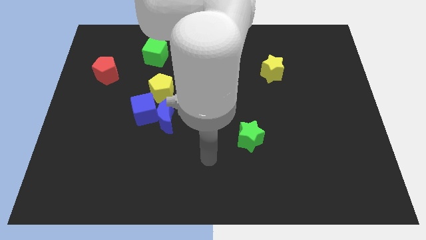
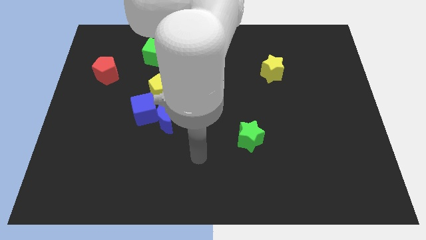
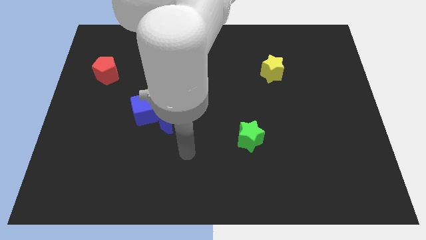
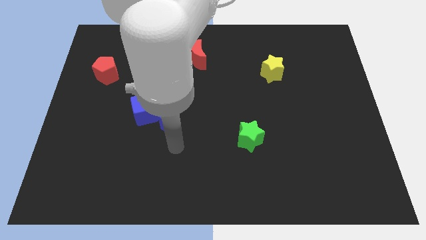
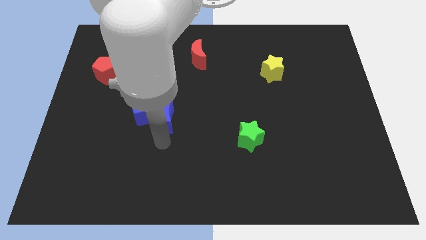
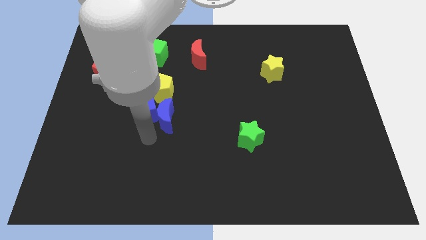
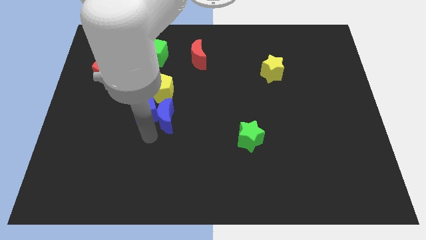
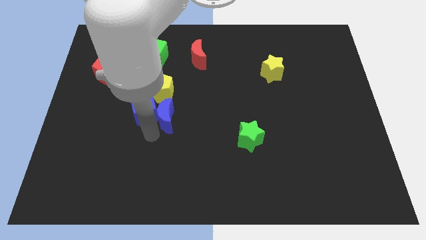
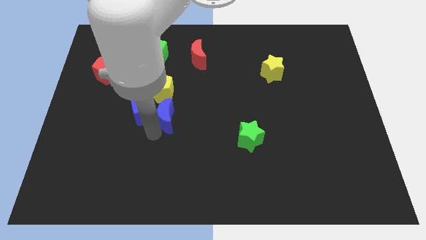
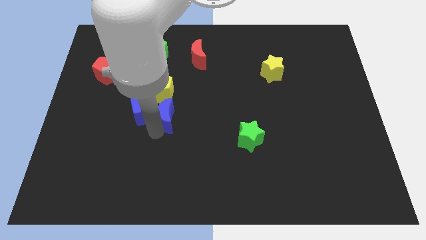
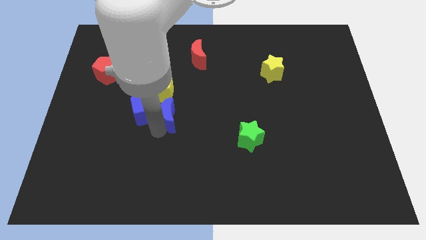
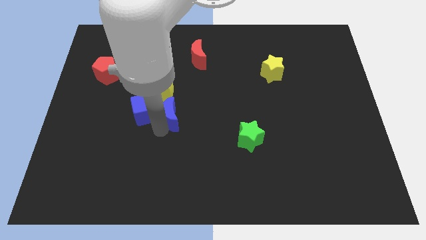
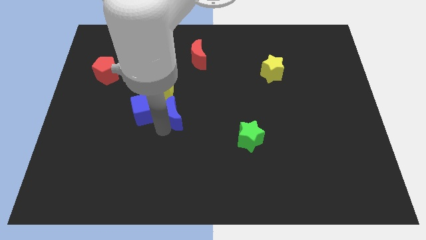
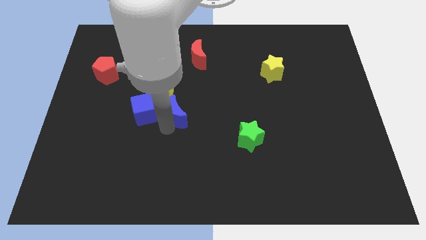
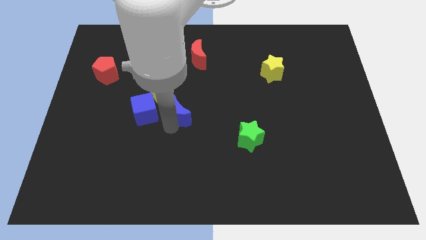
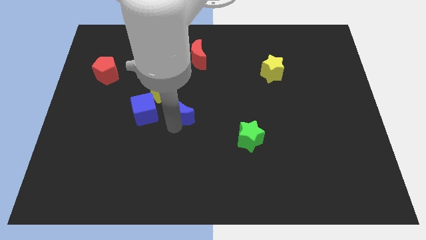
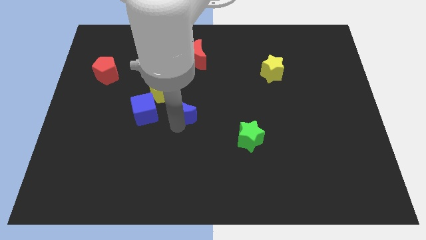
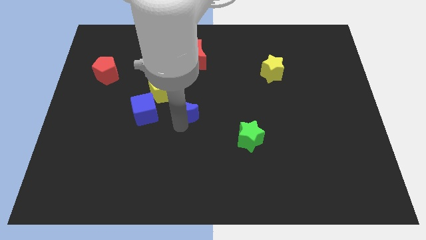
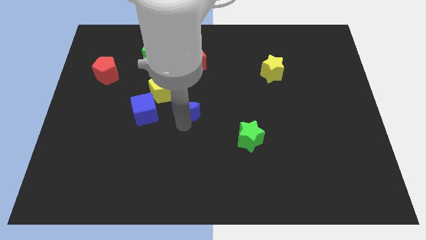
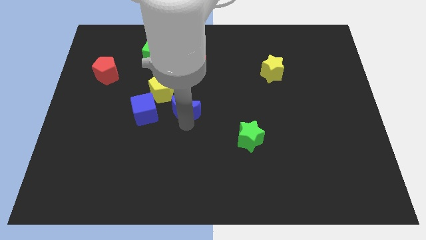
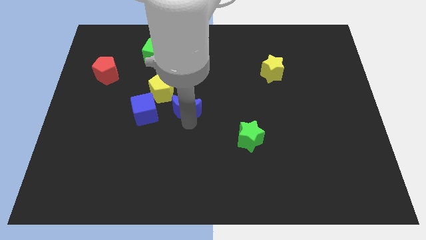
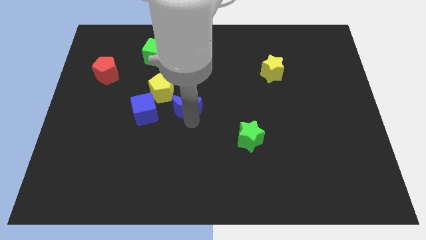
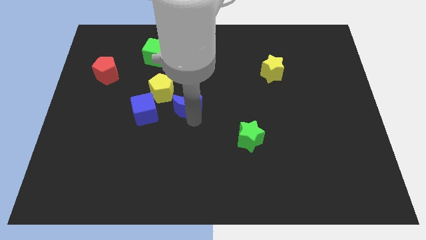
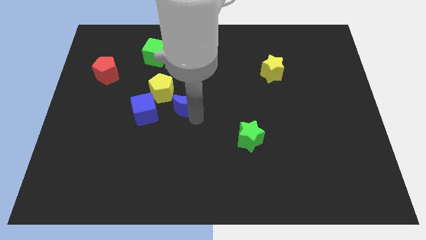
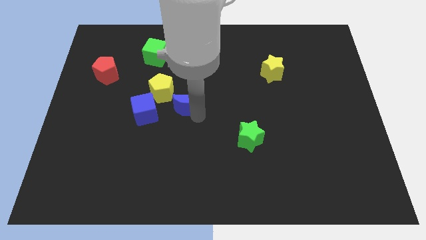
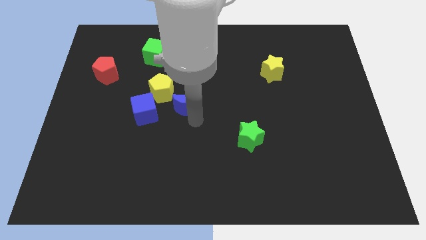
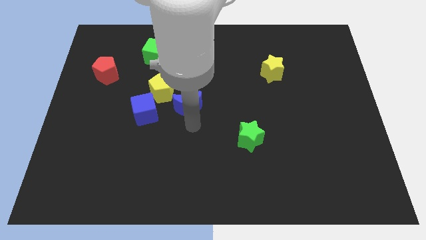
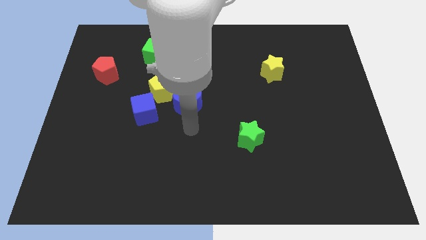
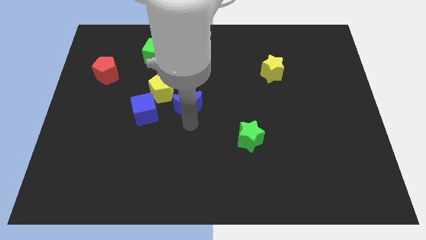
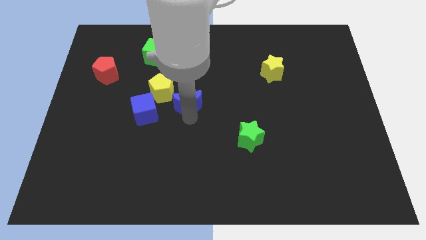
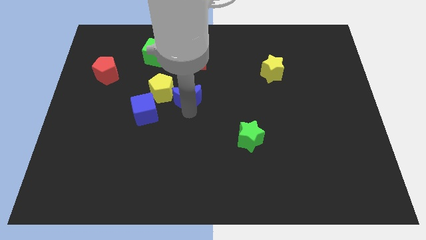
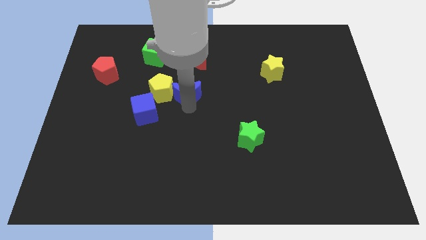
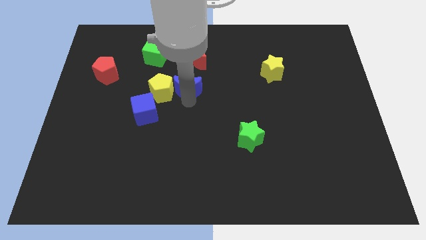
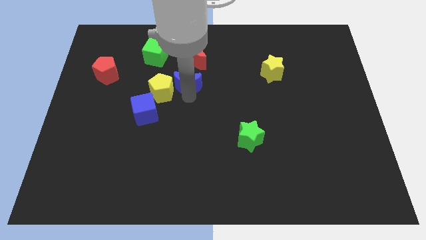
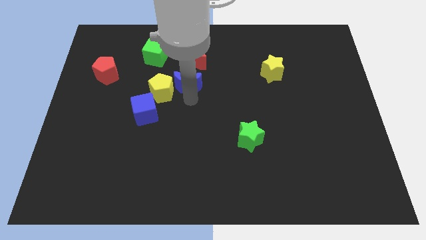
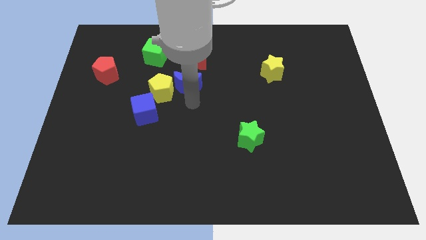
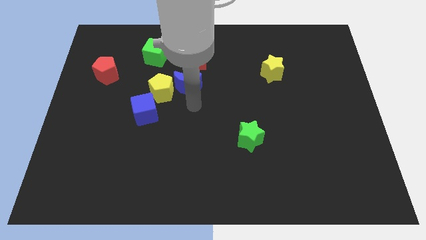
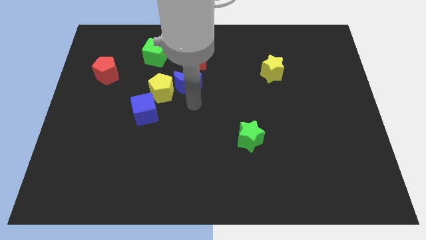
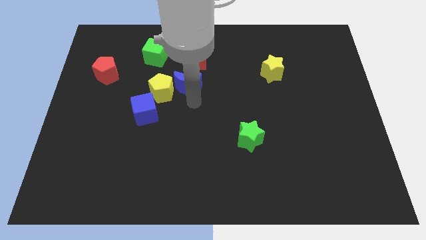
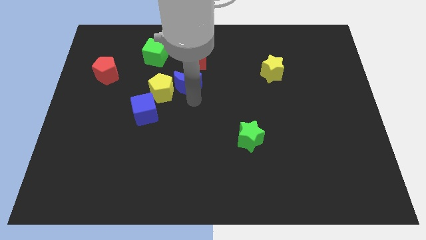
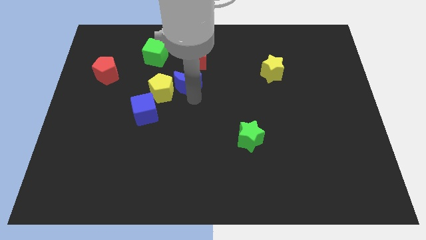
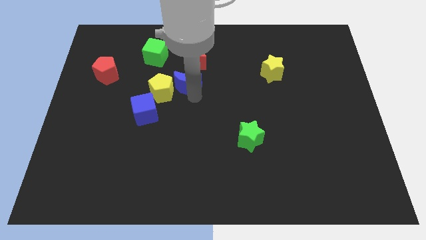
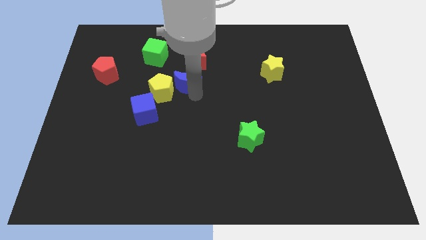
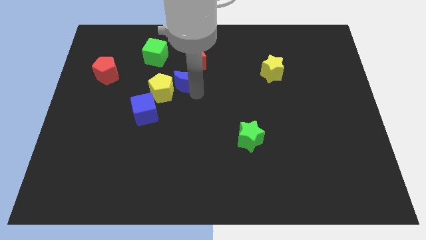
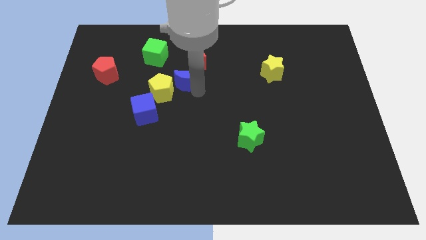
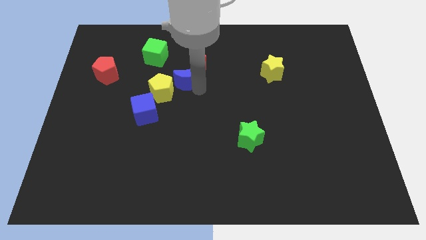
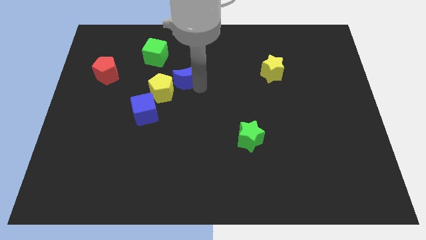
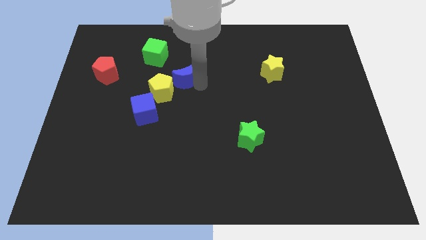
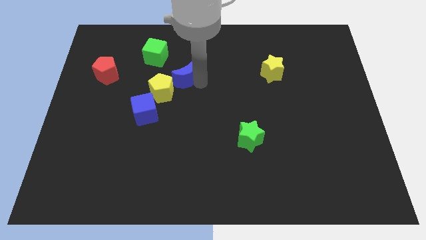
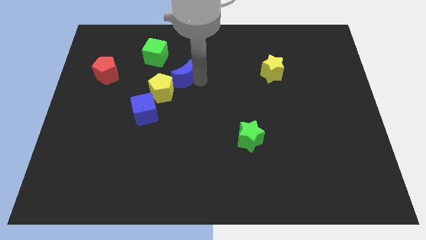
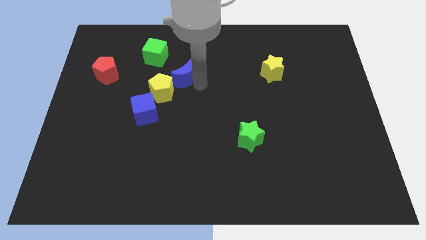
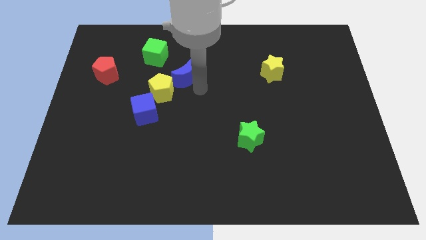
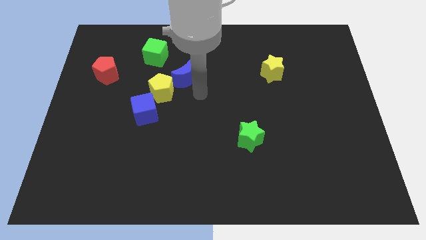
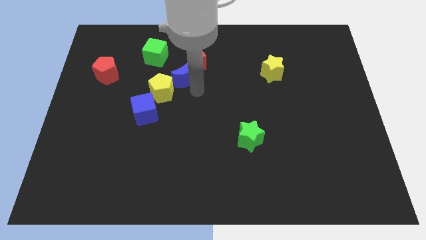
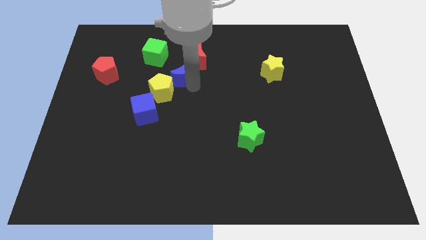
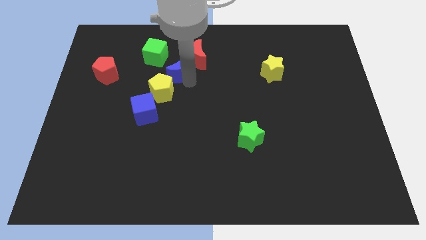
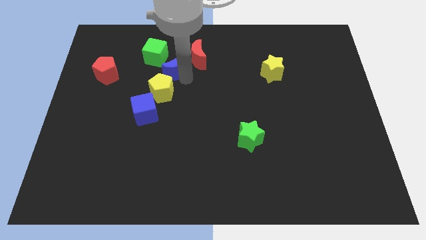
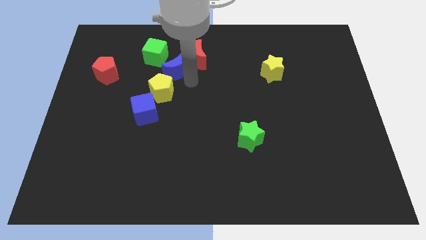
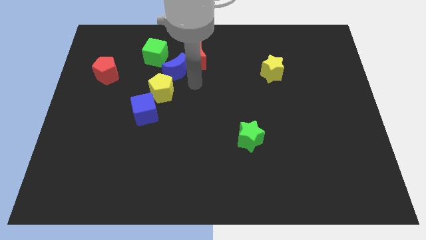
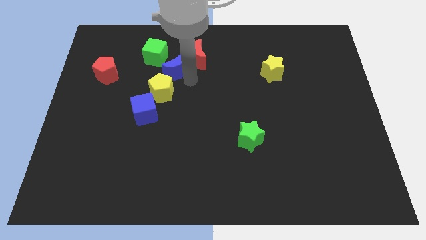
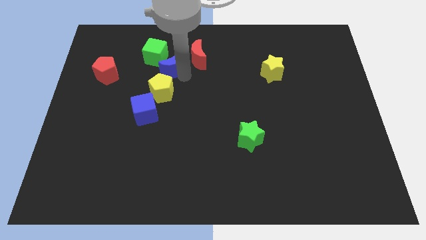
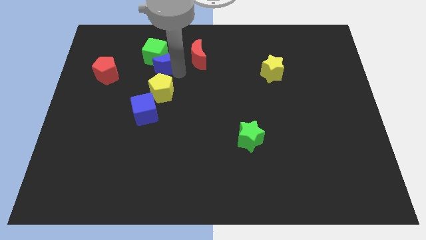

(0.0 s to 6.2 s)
slide the blue moon next to the green cube

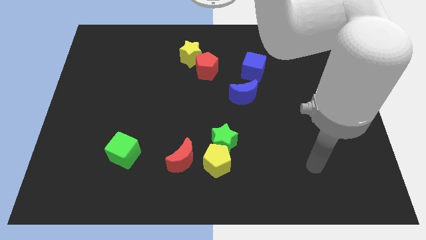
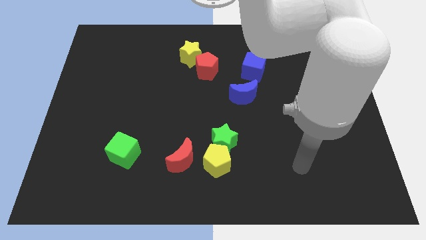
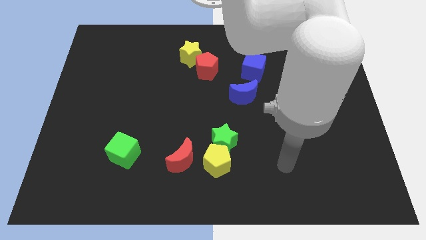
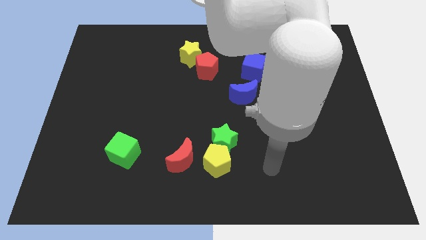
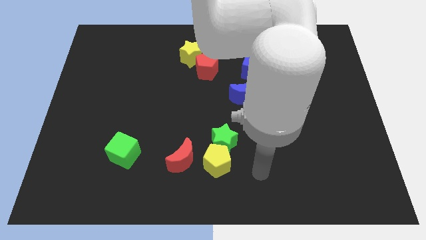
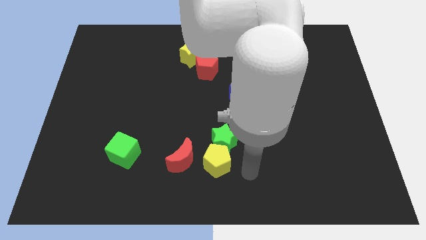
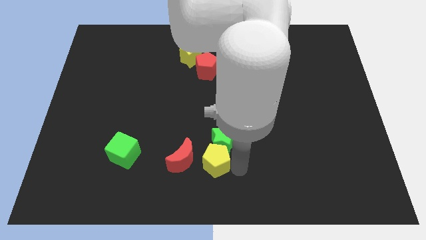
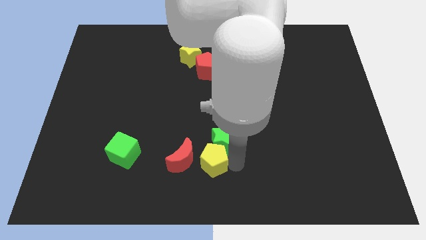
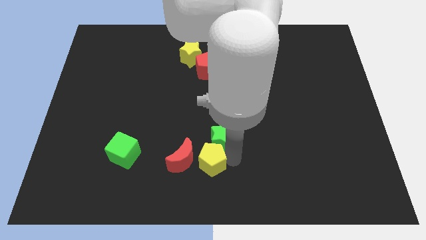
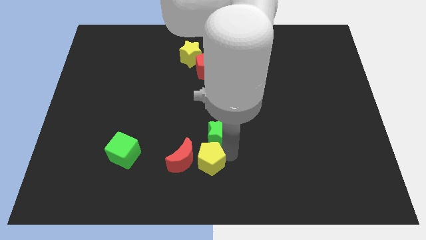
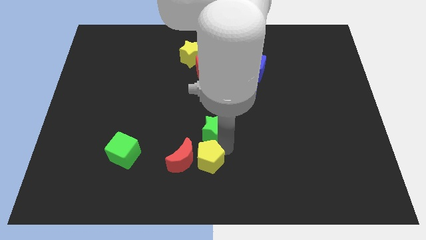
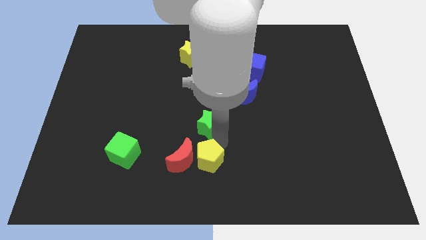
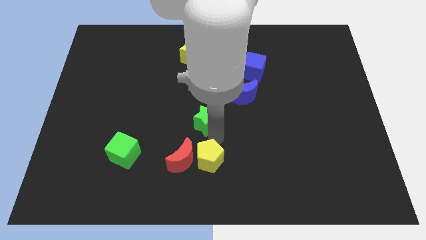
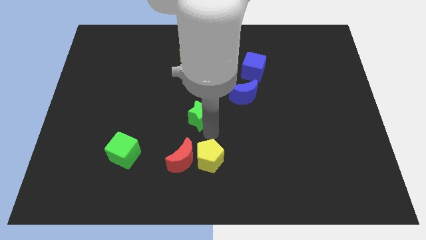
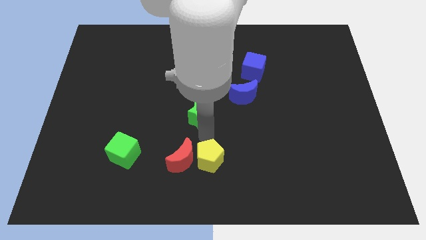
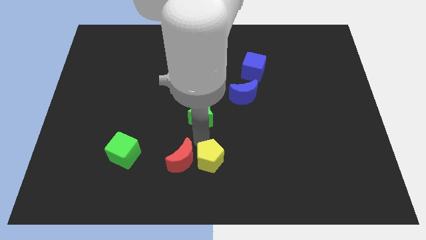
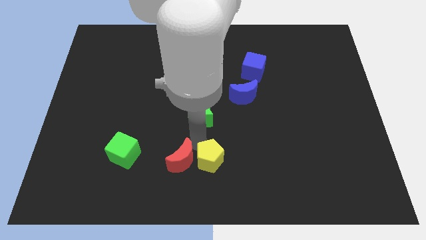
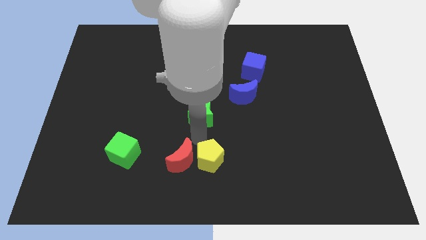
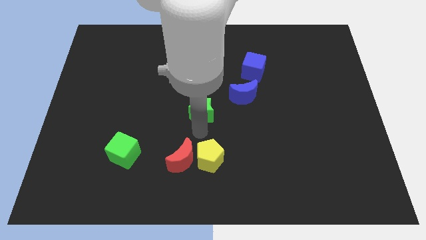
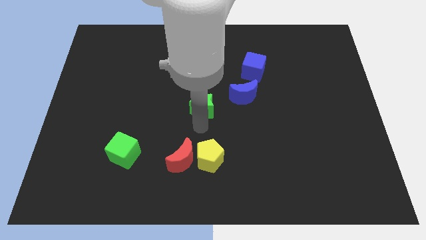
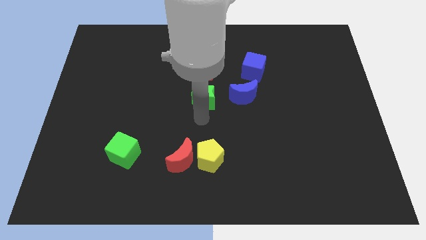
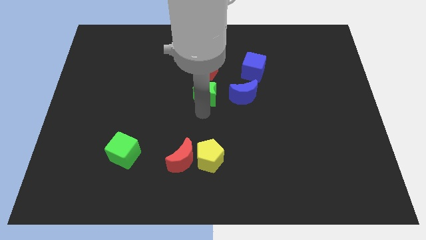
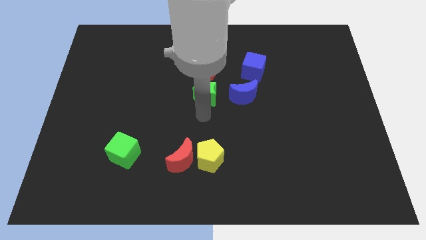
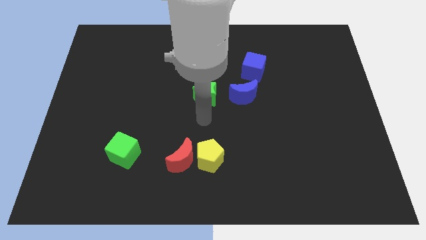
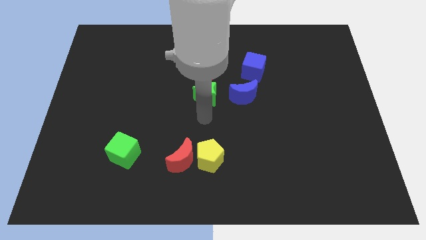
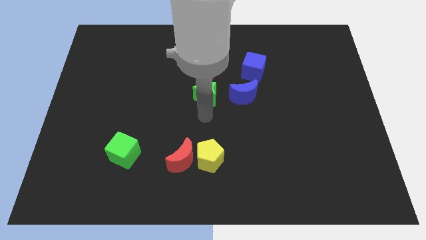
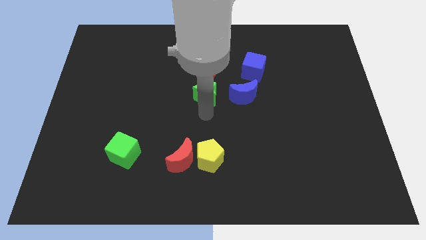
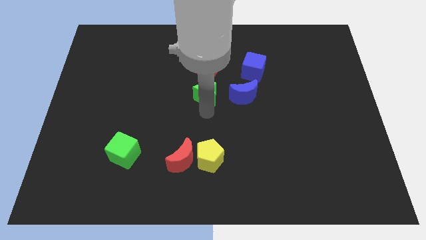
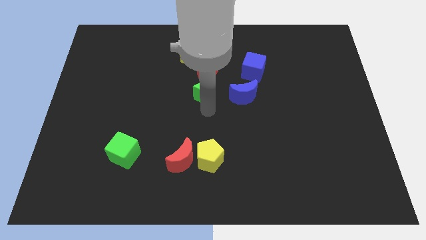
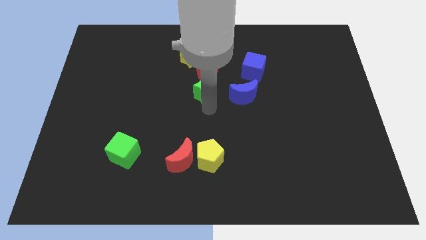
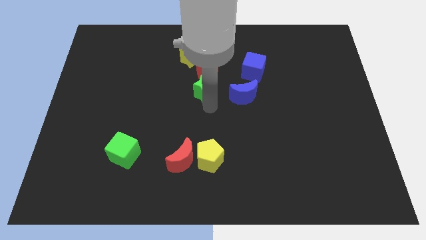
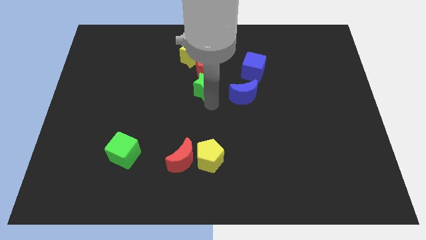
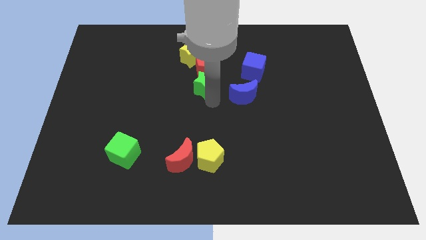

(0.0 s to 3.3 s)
push the green star next to the red pentagon
